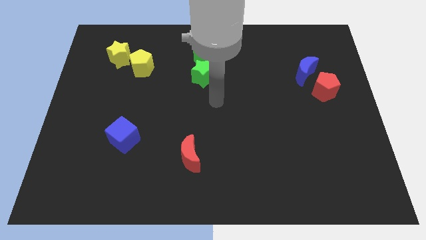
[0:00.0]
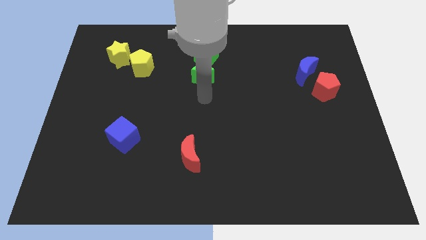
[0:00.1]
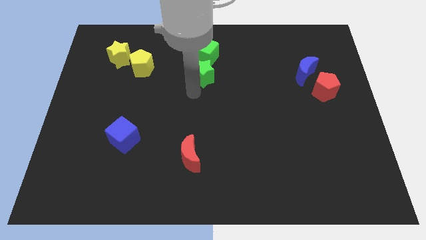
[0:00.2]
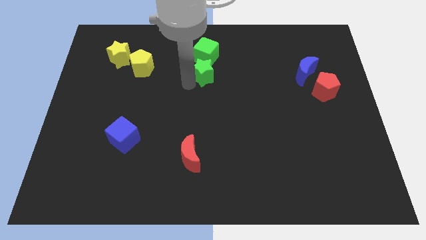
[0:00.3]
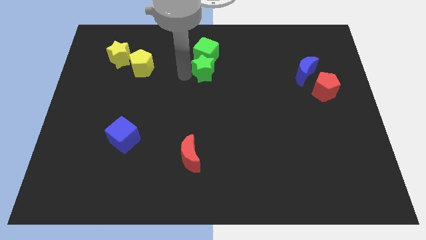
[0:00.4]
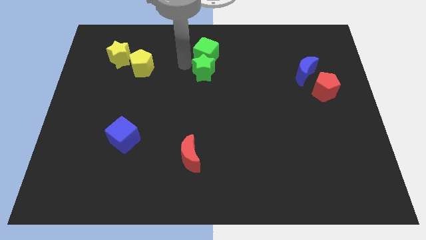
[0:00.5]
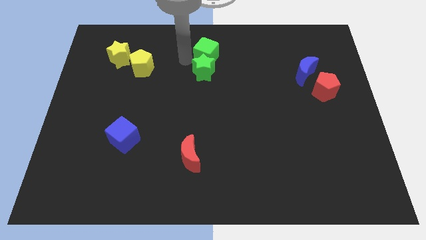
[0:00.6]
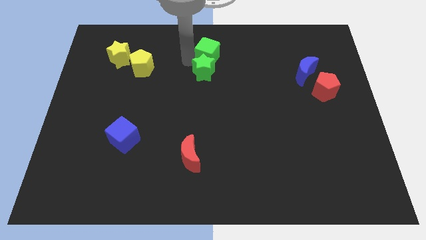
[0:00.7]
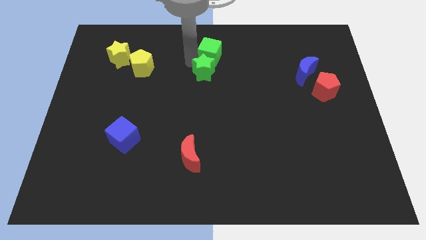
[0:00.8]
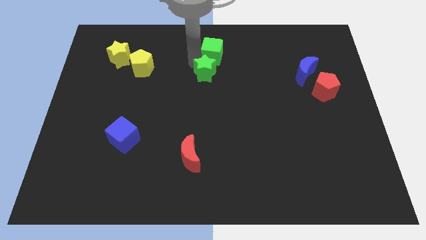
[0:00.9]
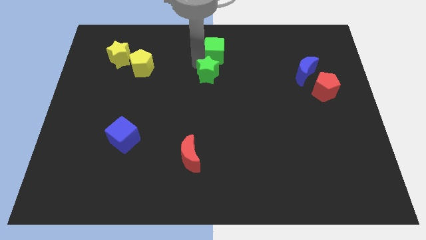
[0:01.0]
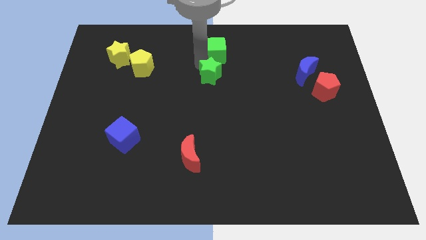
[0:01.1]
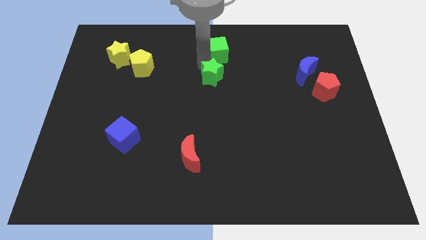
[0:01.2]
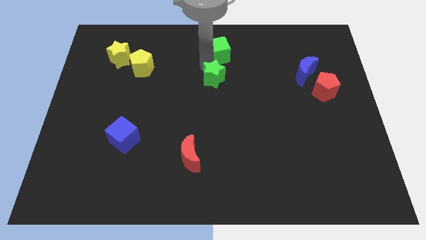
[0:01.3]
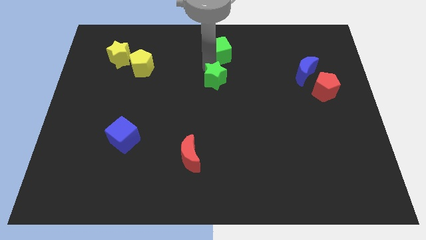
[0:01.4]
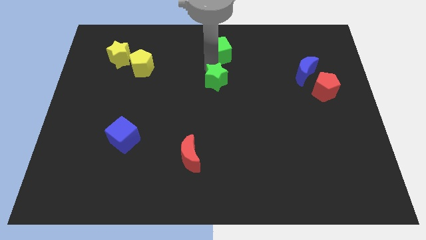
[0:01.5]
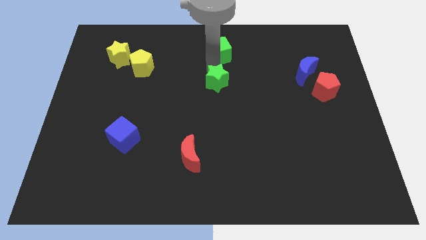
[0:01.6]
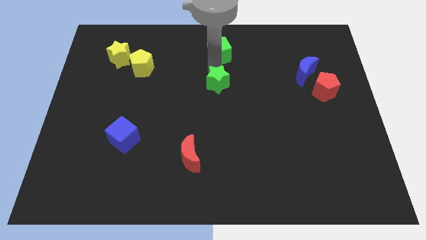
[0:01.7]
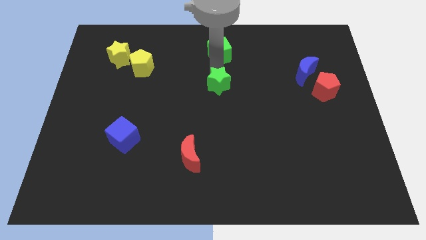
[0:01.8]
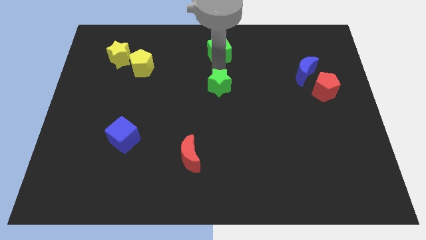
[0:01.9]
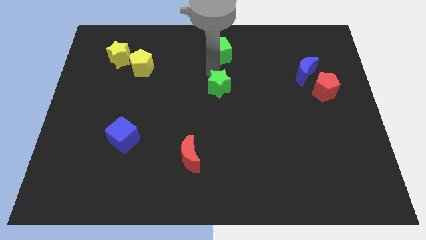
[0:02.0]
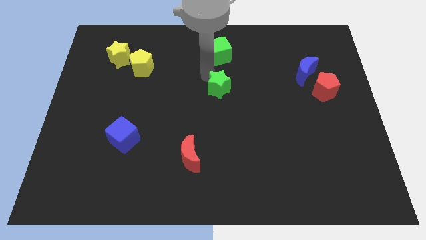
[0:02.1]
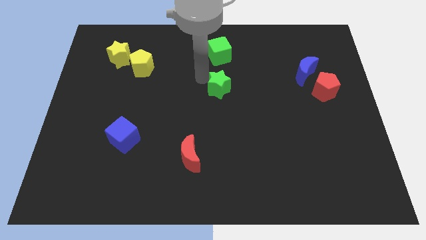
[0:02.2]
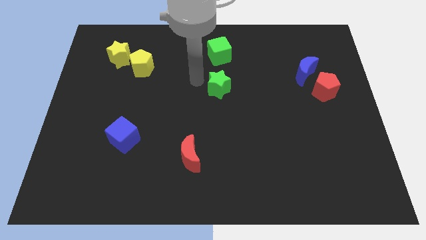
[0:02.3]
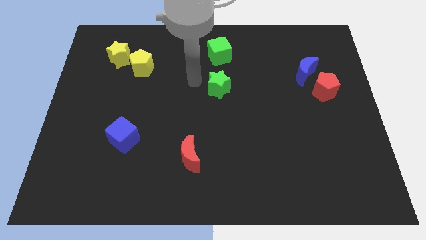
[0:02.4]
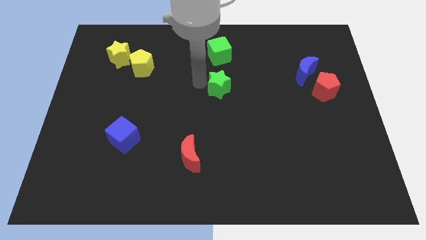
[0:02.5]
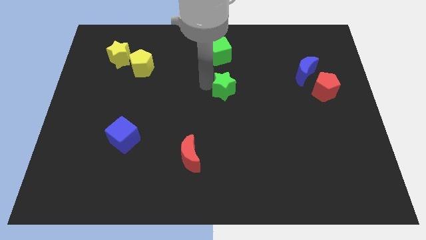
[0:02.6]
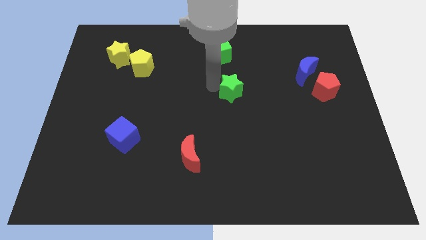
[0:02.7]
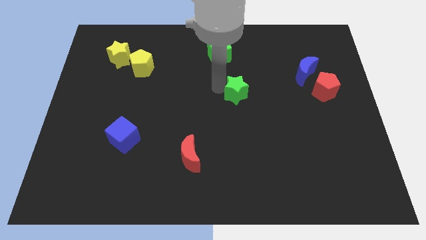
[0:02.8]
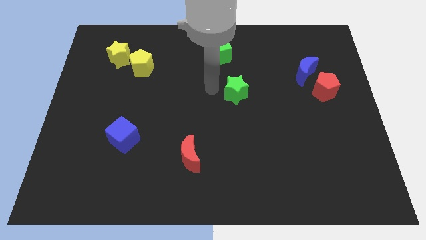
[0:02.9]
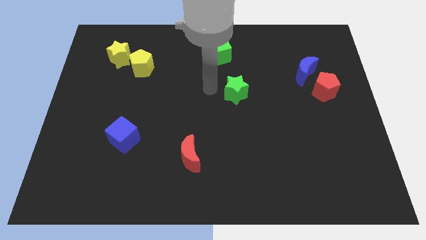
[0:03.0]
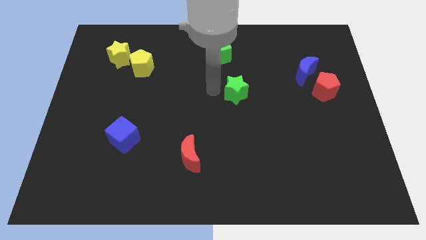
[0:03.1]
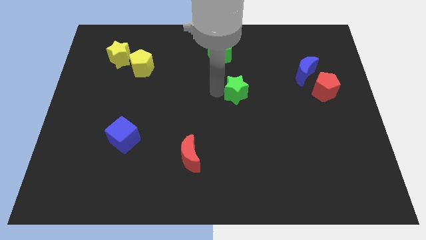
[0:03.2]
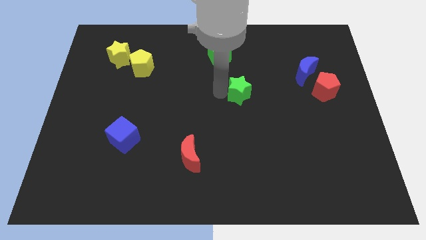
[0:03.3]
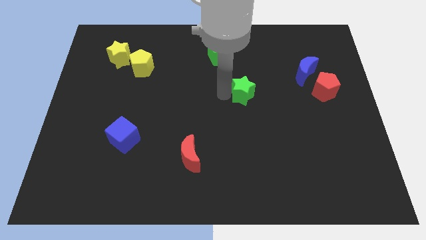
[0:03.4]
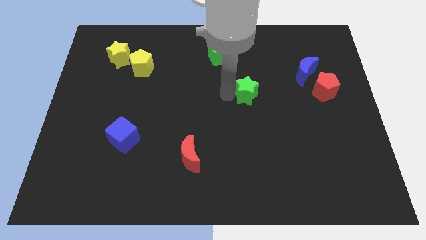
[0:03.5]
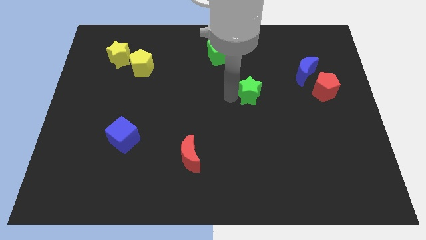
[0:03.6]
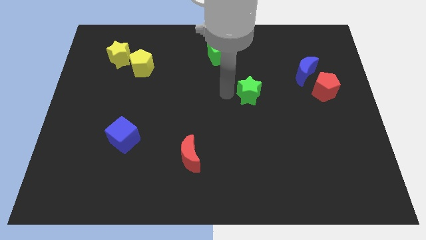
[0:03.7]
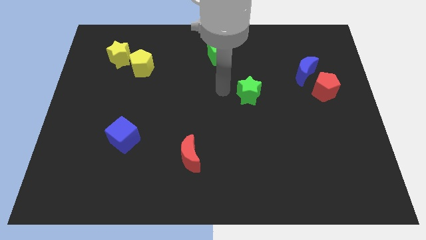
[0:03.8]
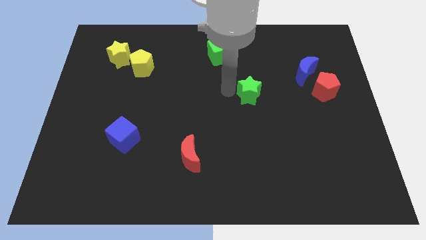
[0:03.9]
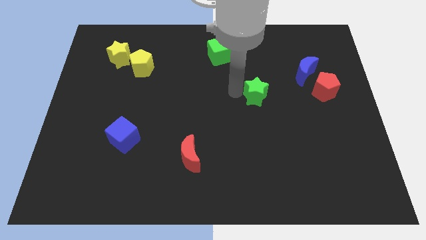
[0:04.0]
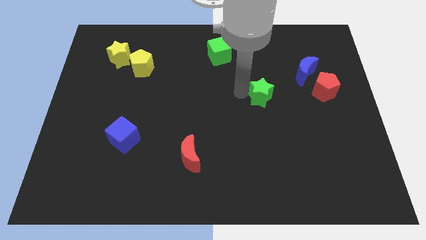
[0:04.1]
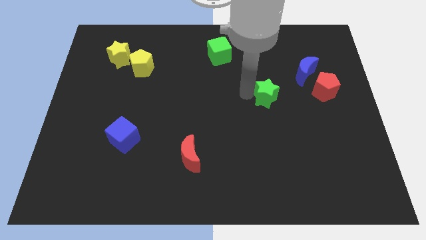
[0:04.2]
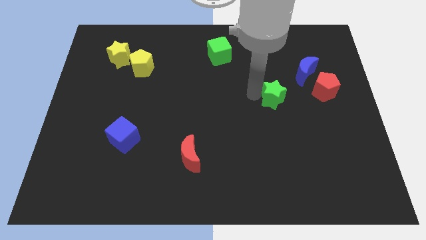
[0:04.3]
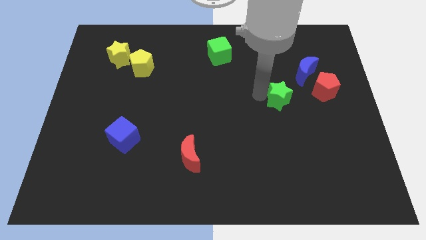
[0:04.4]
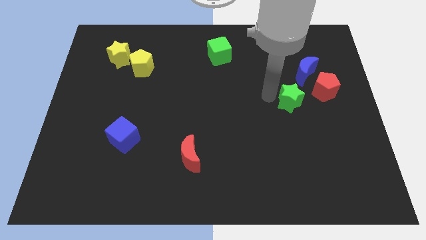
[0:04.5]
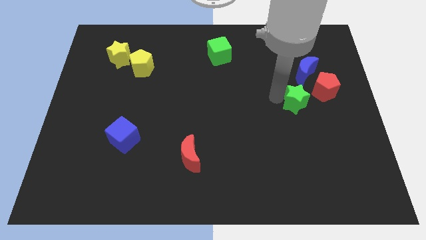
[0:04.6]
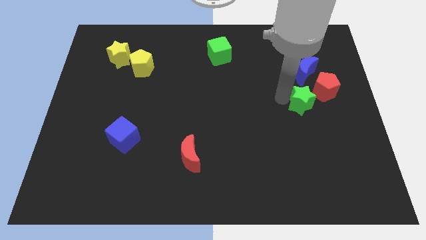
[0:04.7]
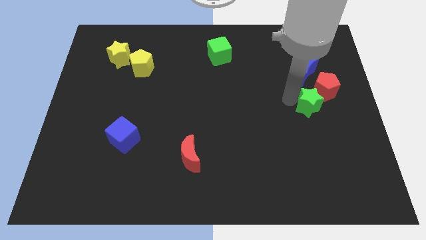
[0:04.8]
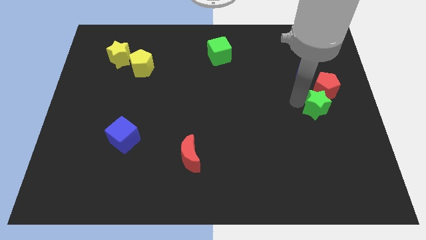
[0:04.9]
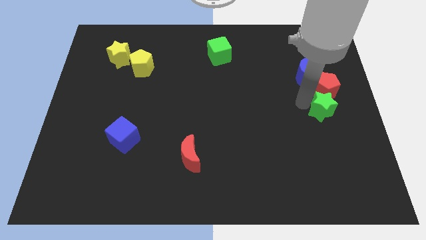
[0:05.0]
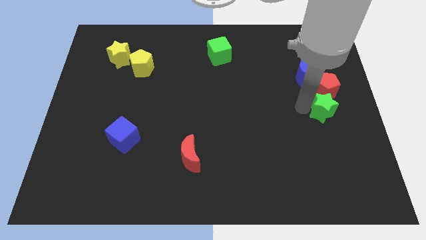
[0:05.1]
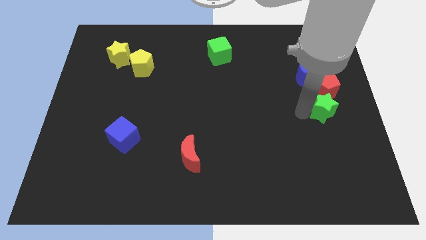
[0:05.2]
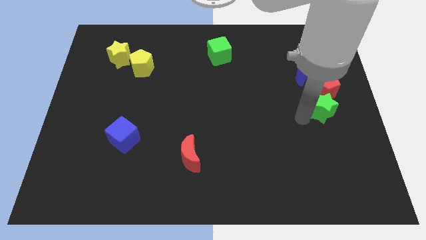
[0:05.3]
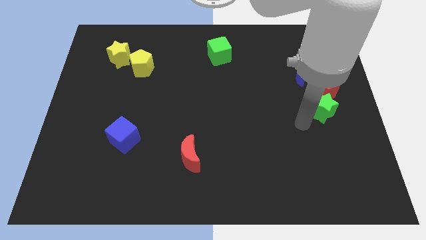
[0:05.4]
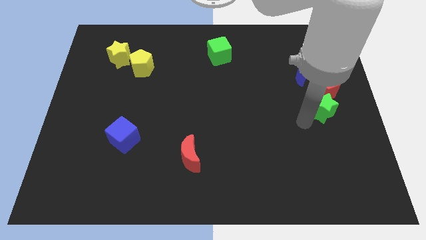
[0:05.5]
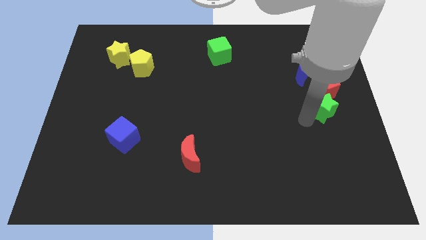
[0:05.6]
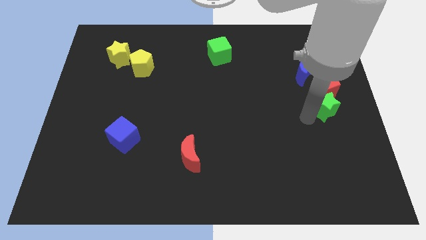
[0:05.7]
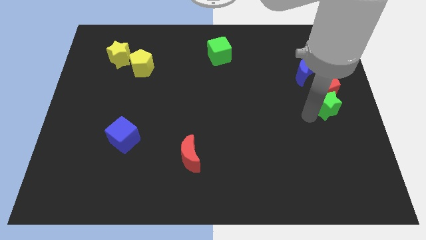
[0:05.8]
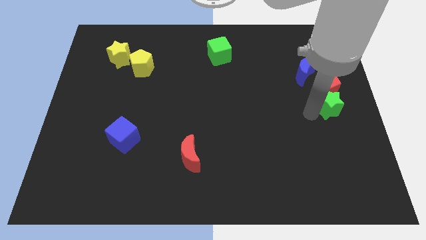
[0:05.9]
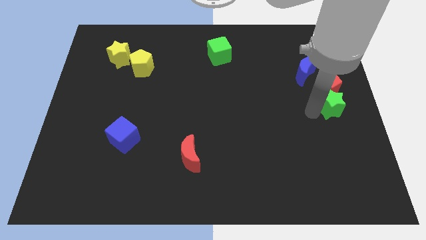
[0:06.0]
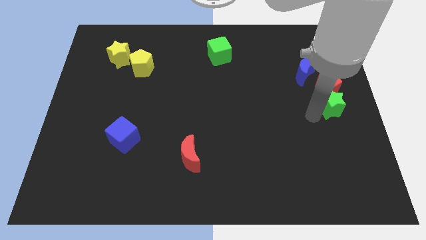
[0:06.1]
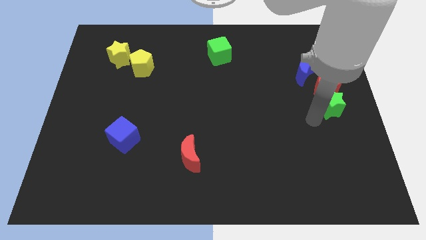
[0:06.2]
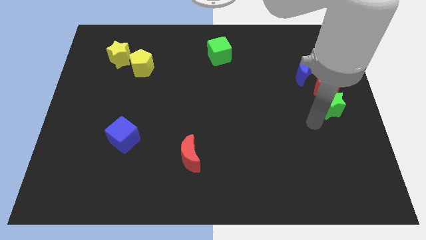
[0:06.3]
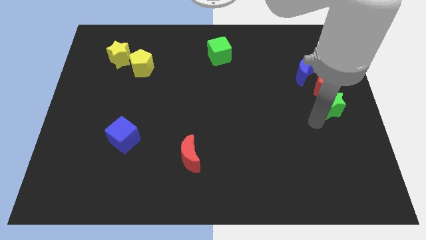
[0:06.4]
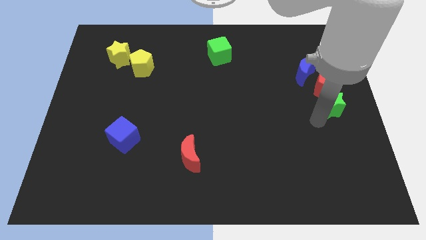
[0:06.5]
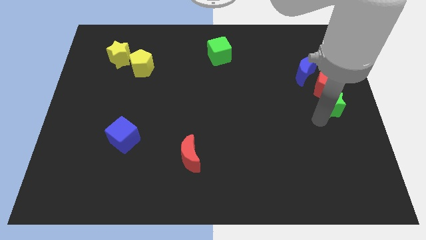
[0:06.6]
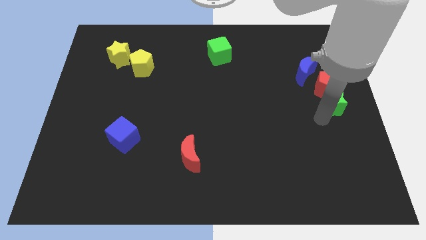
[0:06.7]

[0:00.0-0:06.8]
put the green star to the bottom right of the blue moon

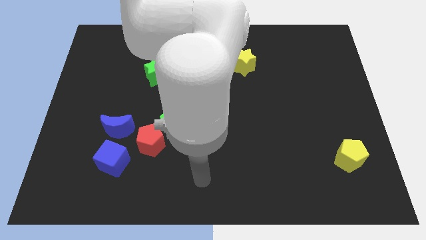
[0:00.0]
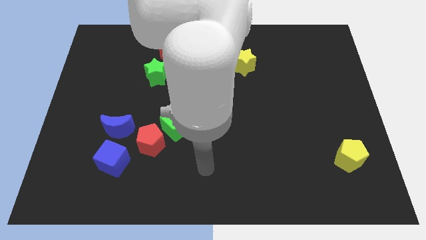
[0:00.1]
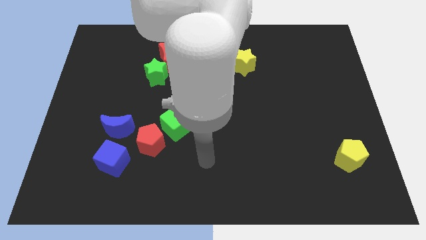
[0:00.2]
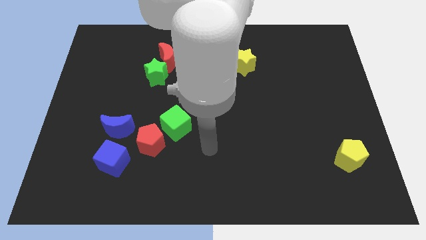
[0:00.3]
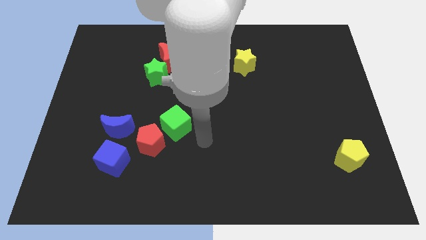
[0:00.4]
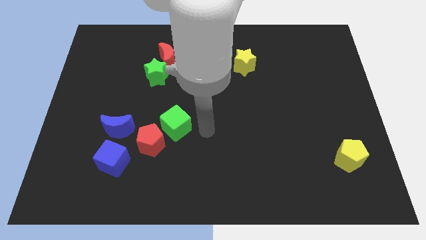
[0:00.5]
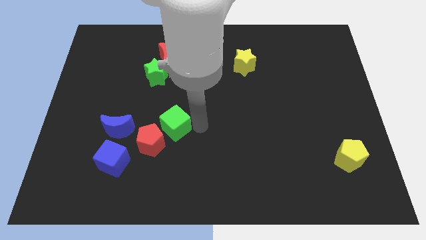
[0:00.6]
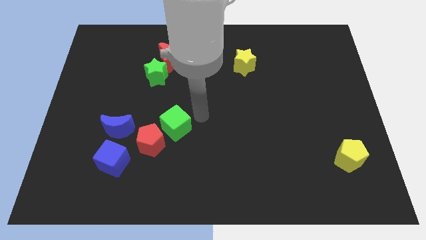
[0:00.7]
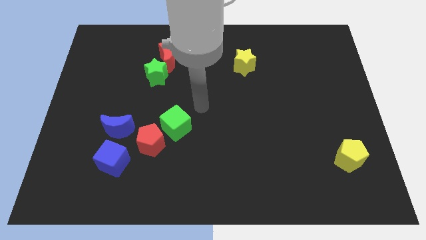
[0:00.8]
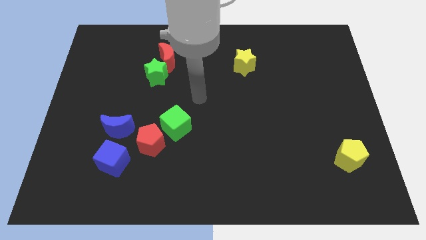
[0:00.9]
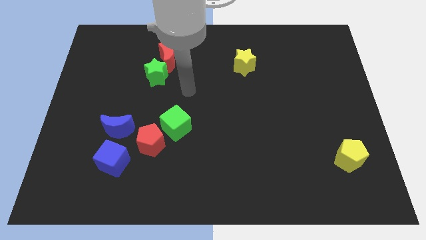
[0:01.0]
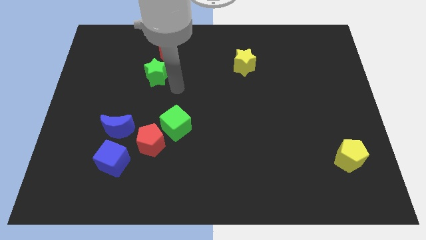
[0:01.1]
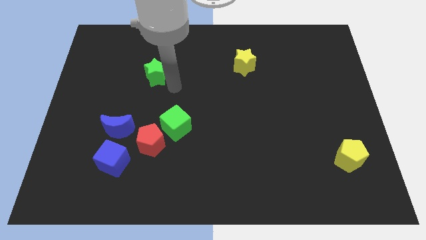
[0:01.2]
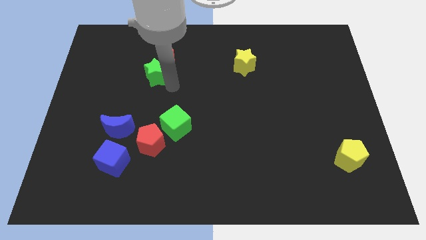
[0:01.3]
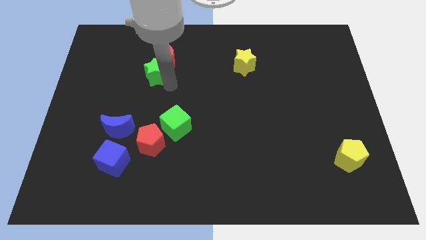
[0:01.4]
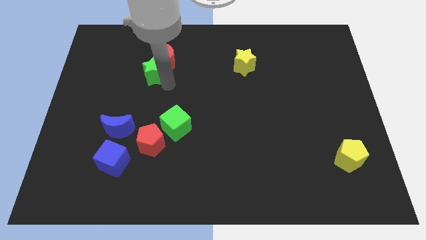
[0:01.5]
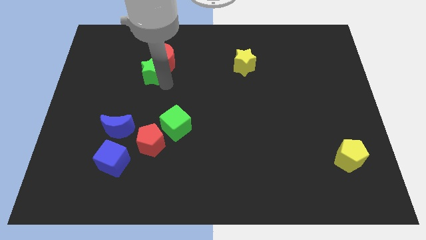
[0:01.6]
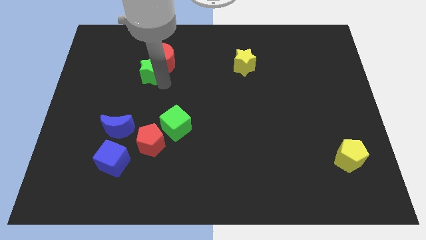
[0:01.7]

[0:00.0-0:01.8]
push the green star just left of the red moon
